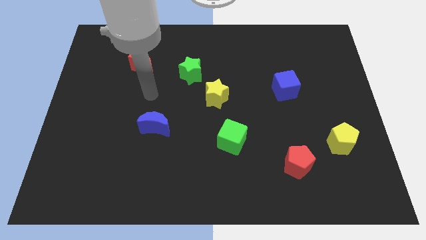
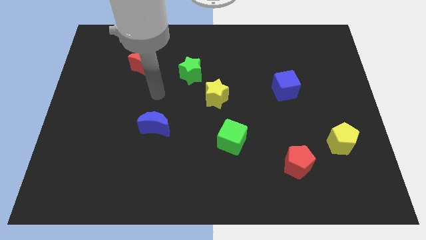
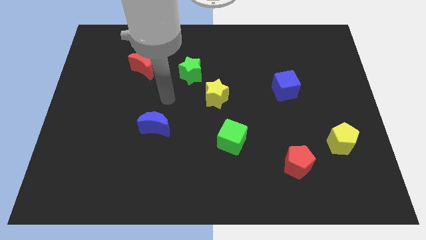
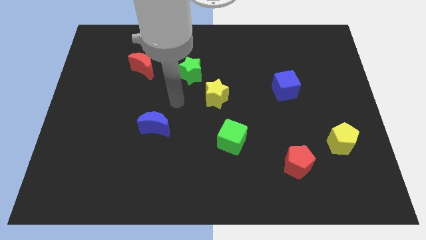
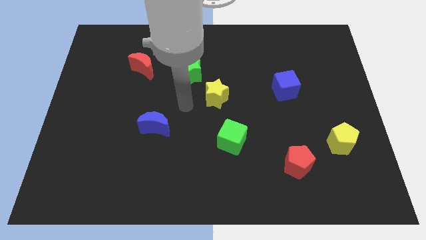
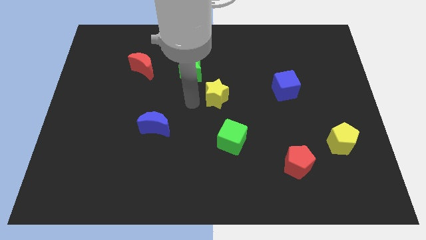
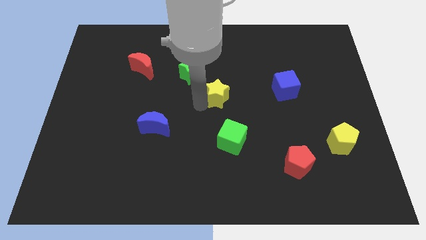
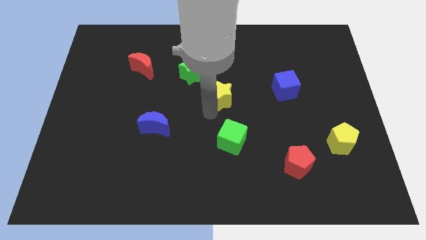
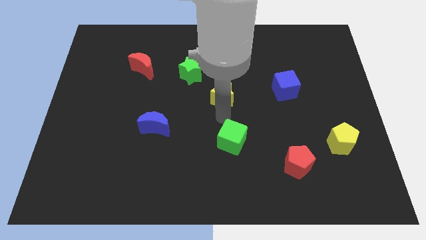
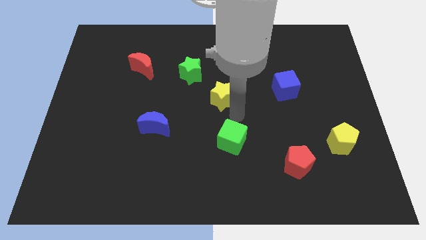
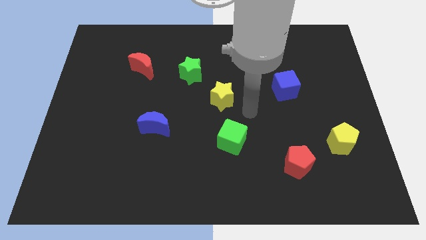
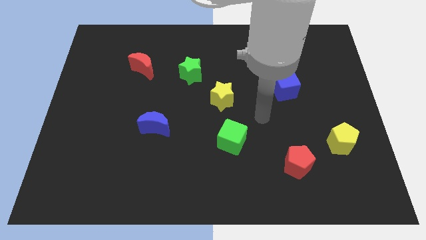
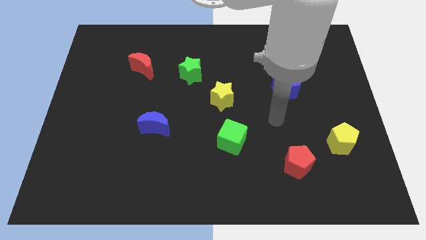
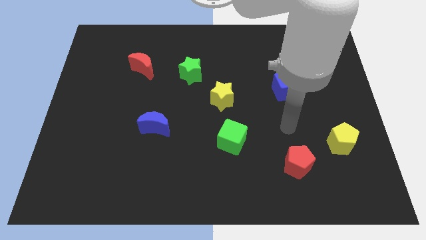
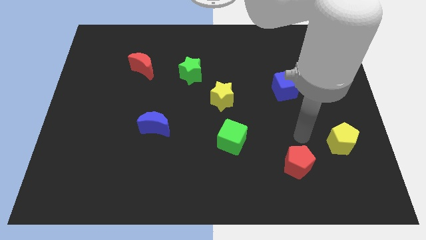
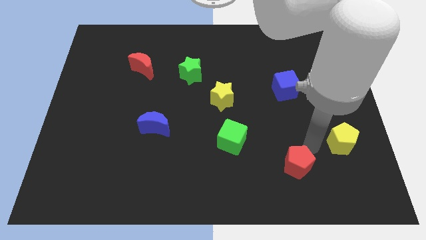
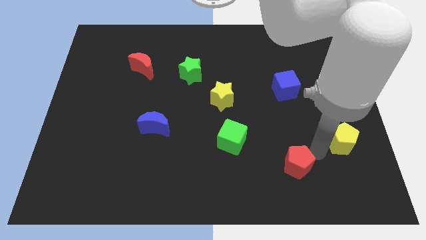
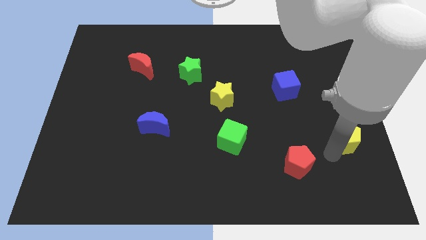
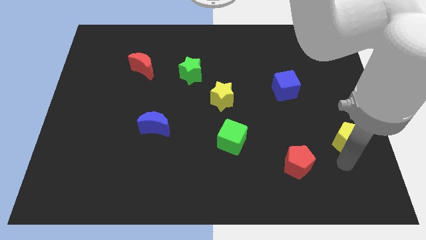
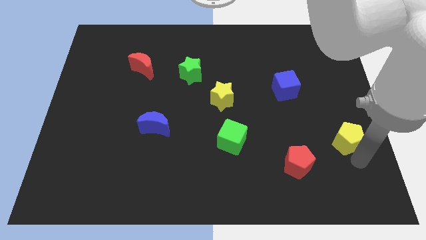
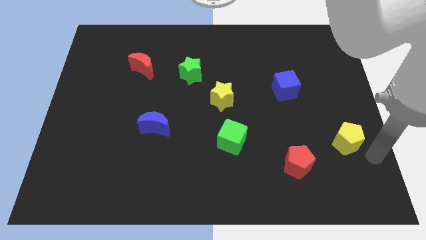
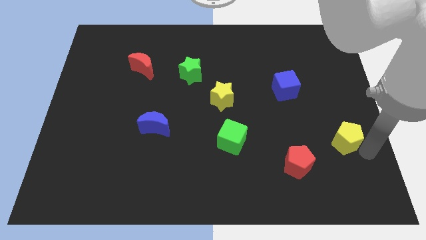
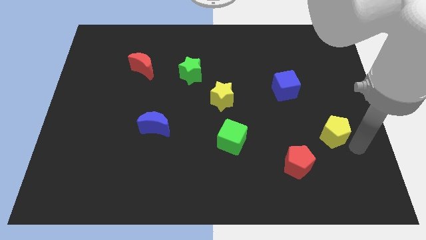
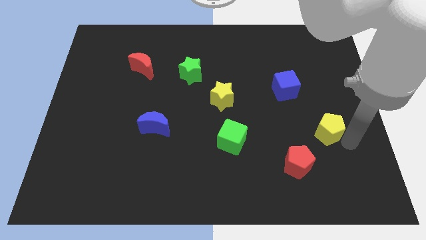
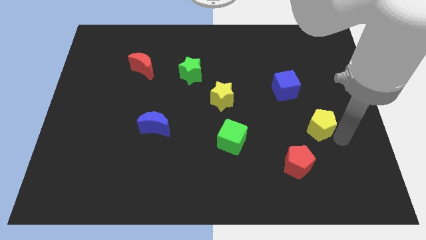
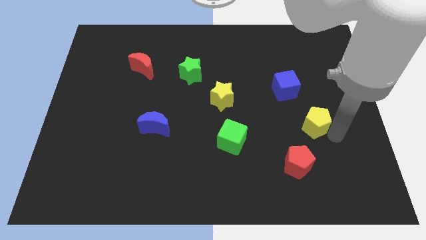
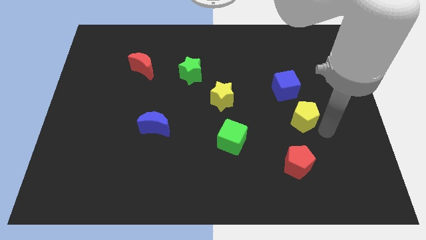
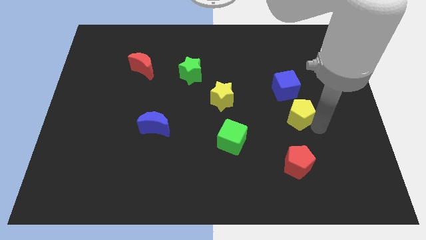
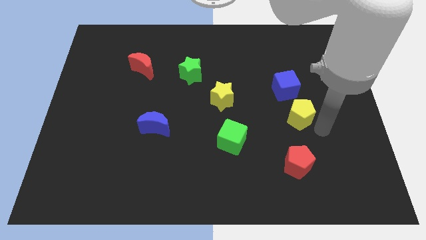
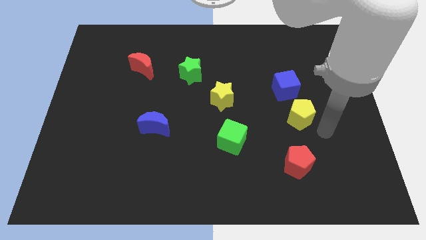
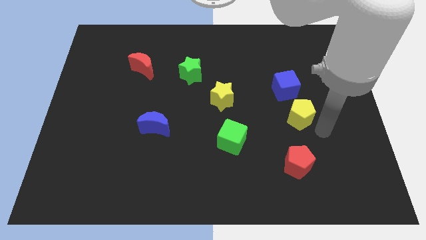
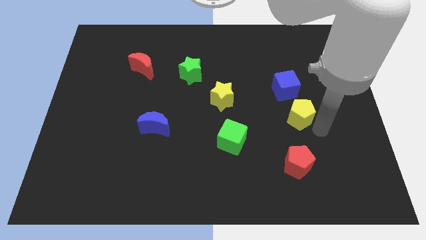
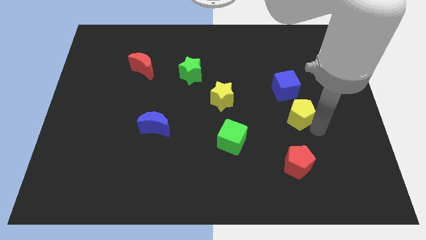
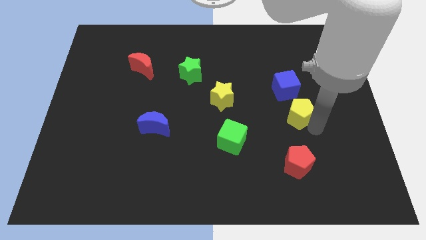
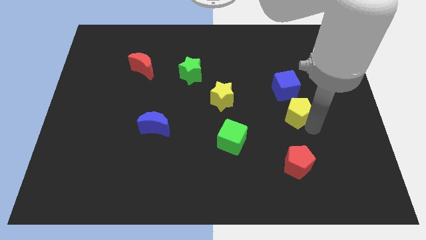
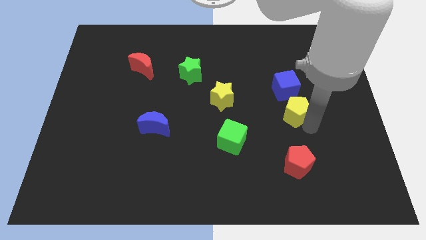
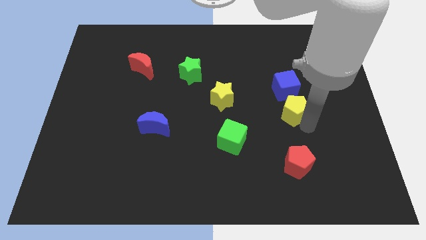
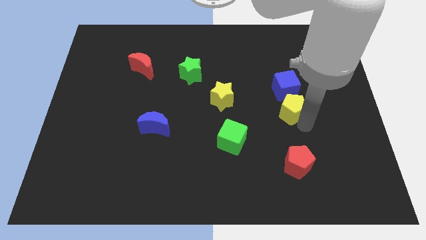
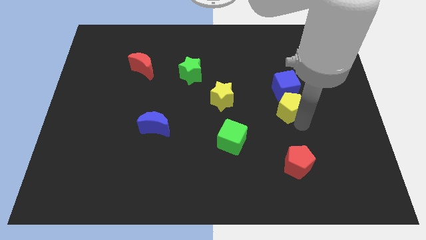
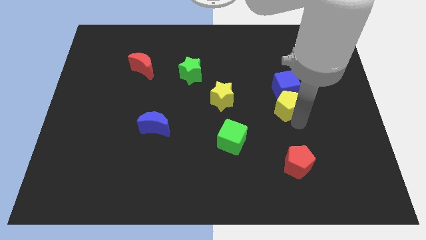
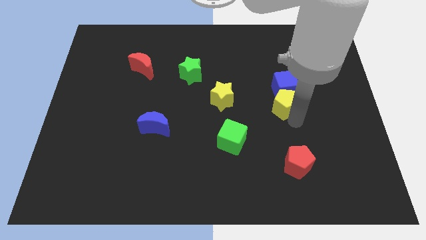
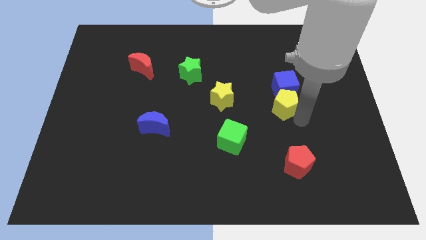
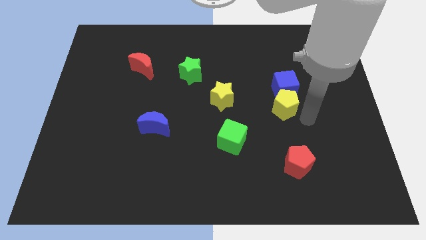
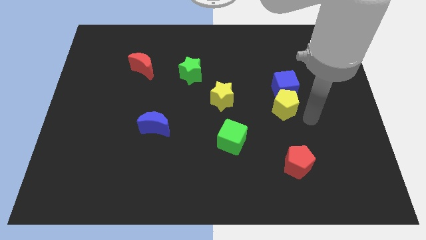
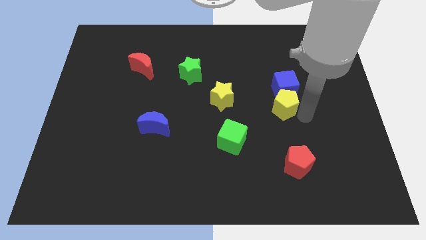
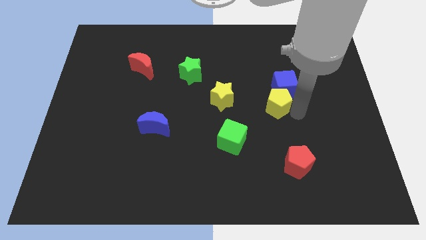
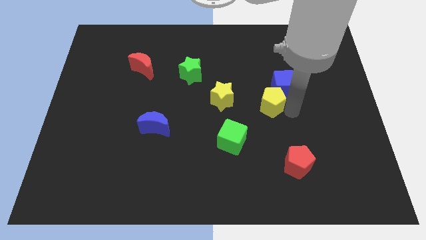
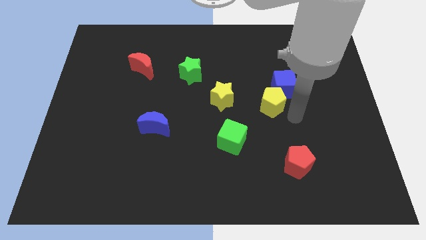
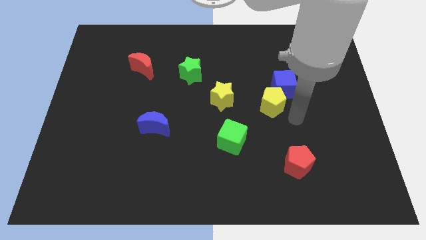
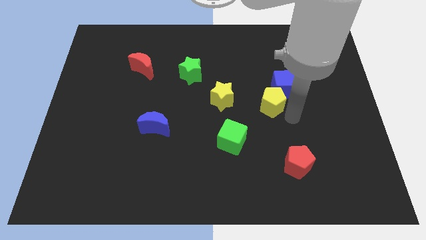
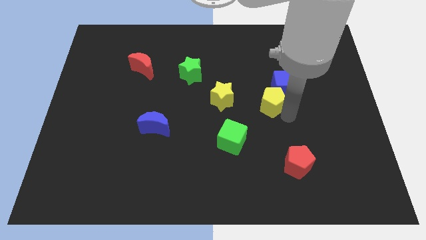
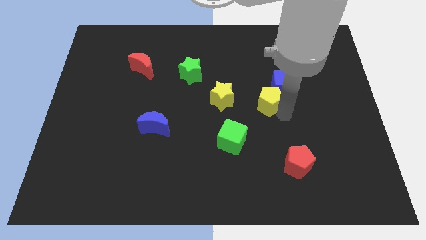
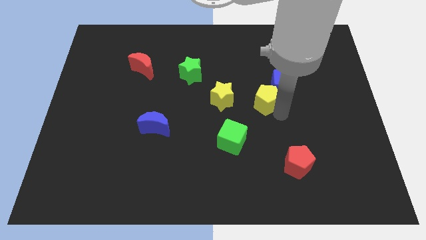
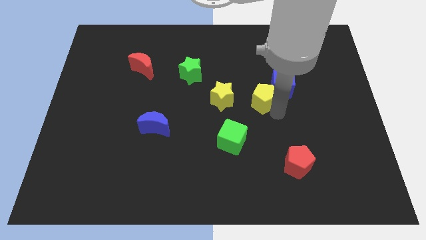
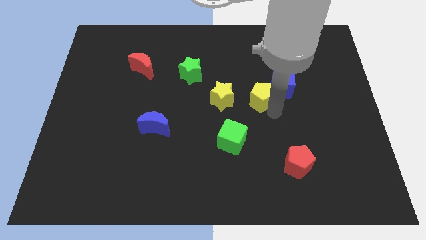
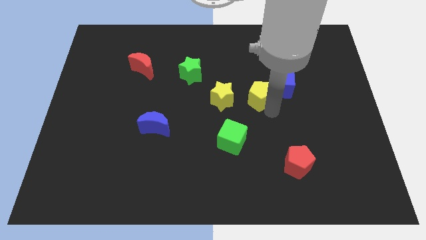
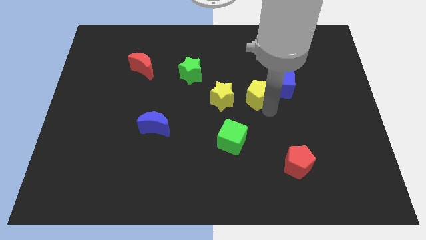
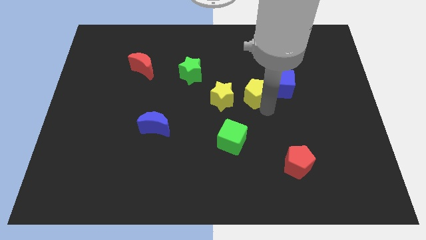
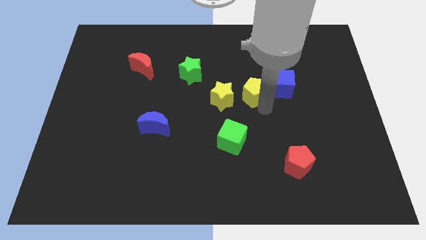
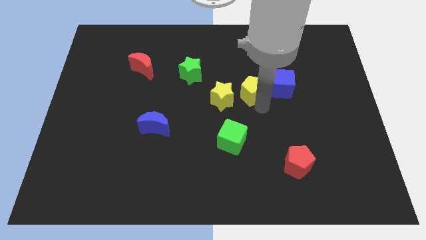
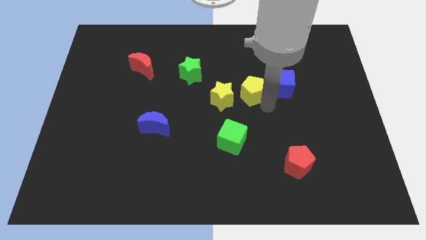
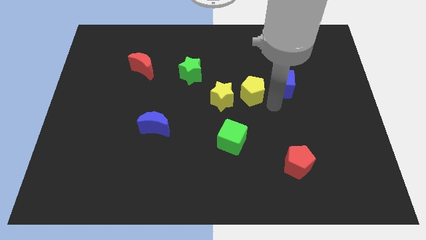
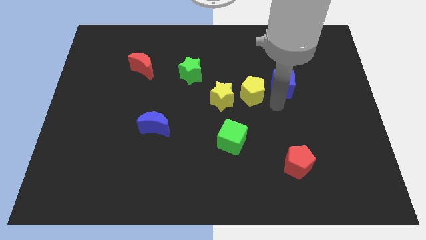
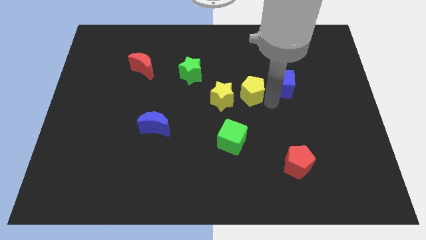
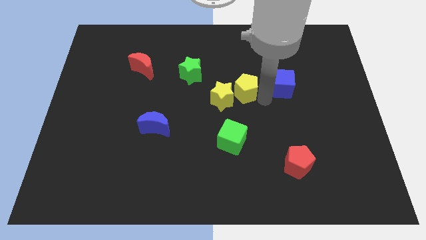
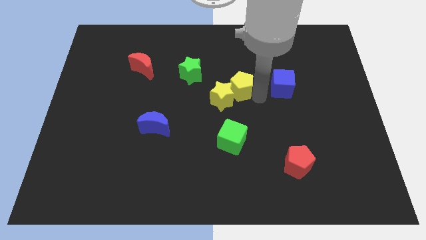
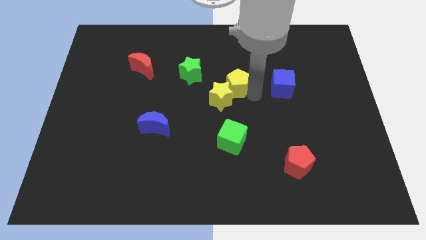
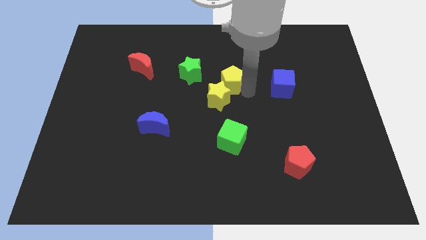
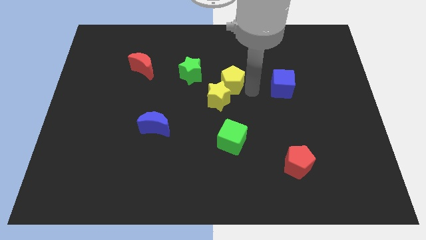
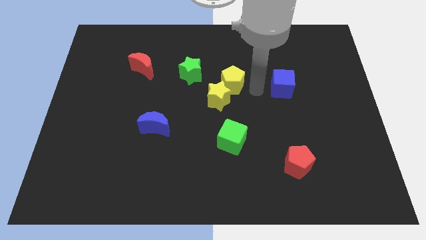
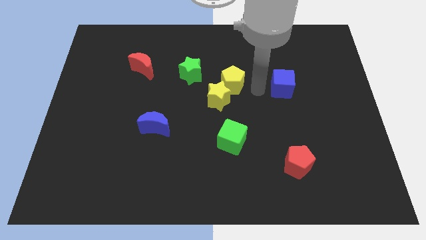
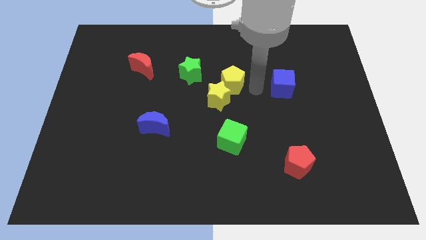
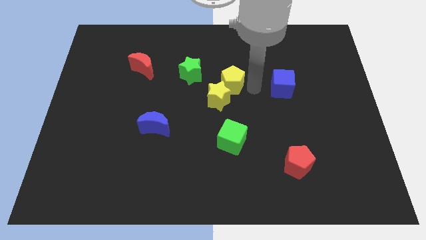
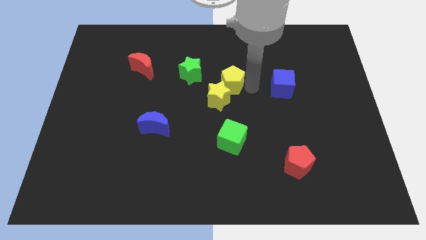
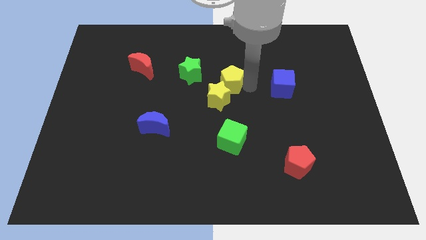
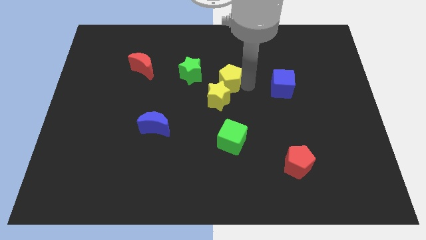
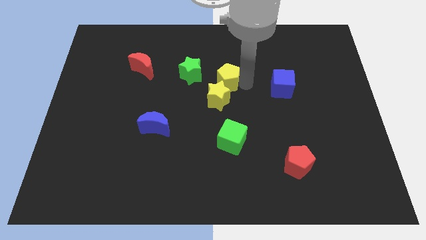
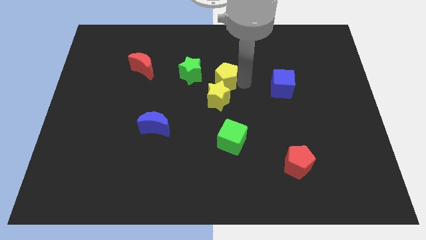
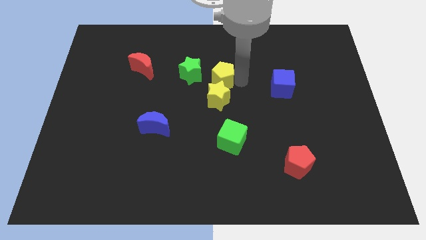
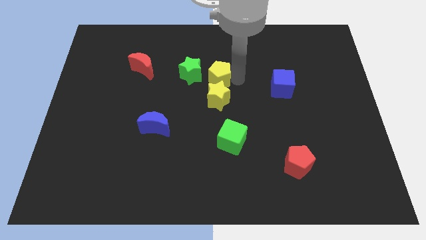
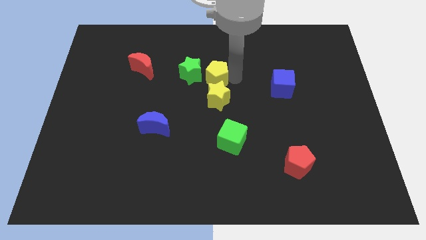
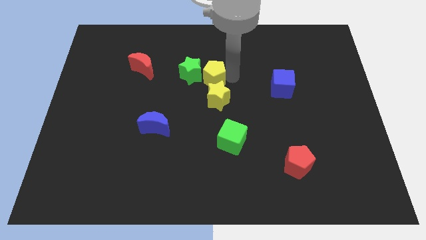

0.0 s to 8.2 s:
put the yellow pentagon to the green star
